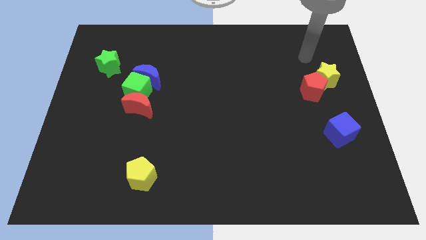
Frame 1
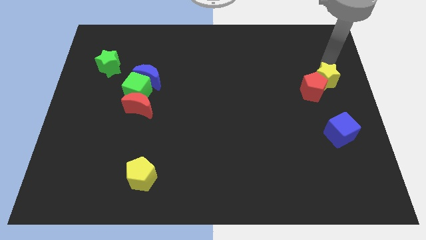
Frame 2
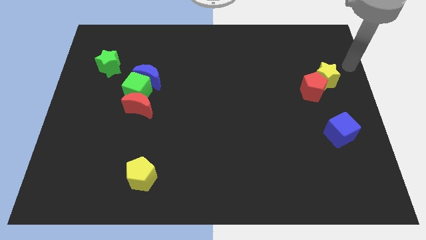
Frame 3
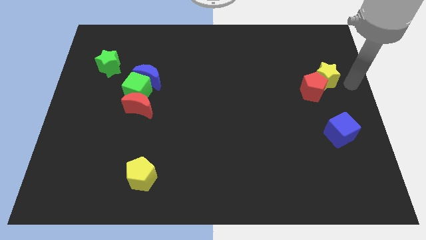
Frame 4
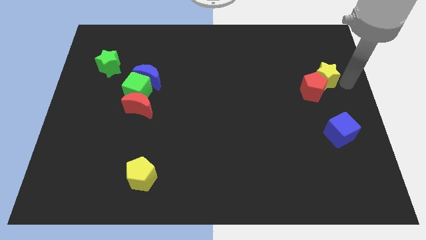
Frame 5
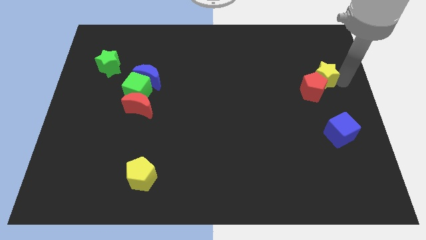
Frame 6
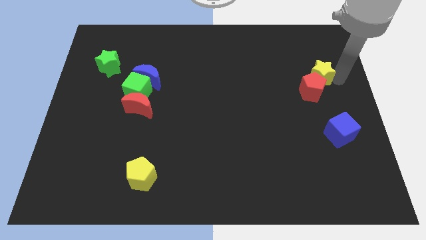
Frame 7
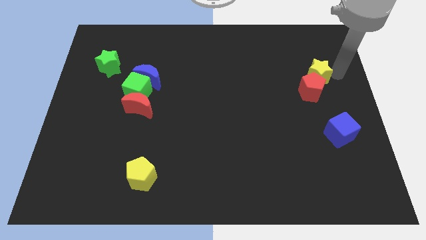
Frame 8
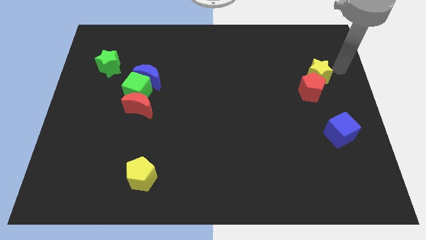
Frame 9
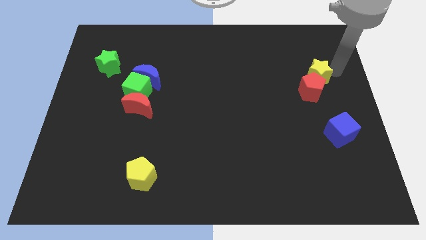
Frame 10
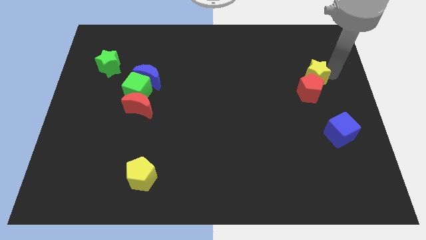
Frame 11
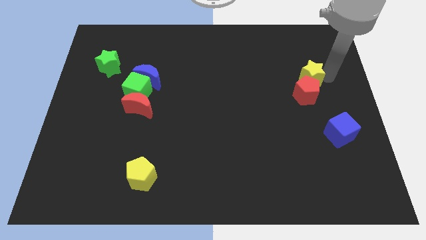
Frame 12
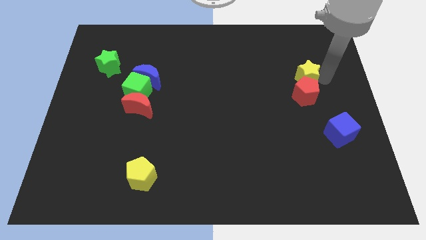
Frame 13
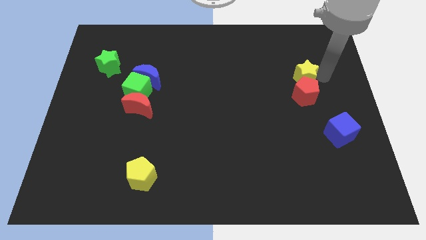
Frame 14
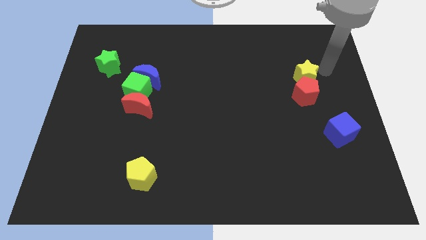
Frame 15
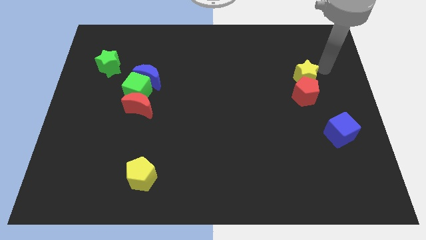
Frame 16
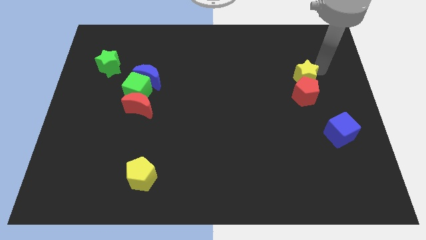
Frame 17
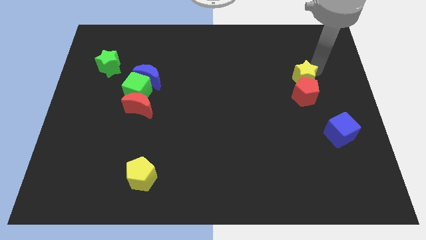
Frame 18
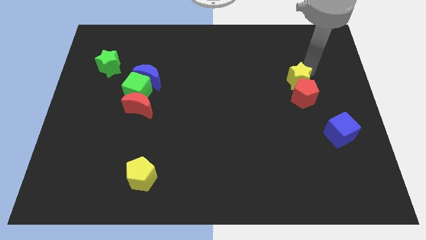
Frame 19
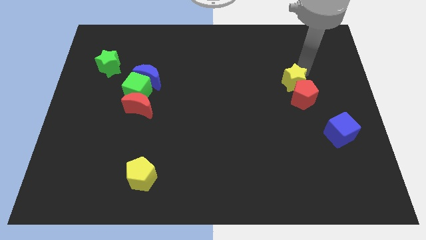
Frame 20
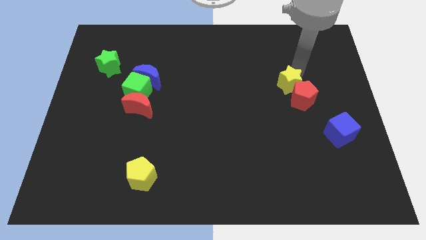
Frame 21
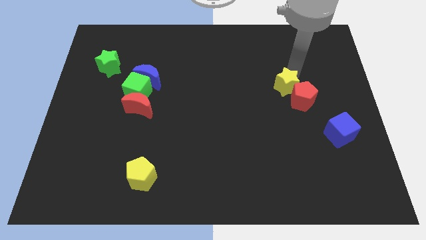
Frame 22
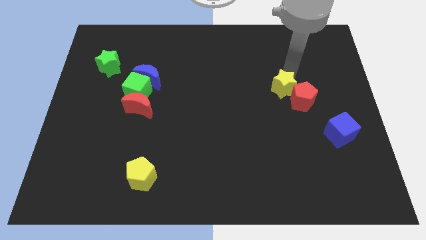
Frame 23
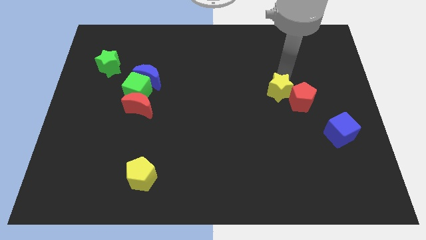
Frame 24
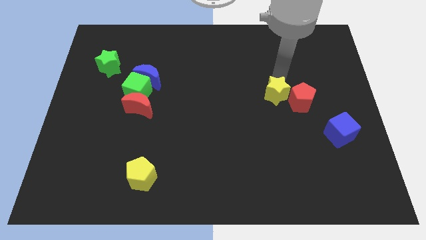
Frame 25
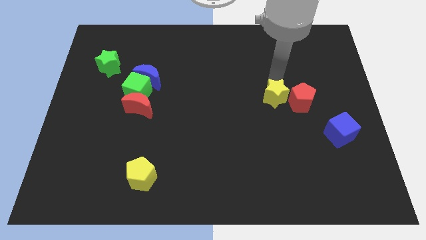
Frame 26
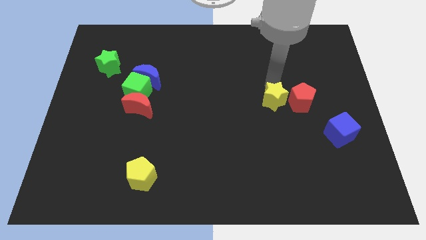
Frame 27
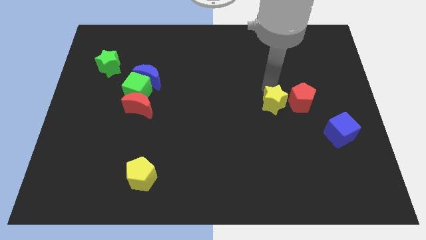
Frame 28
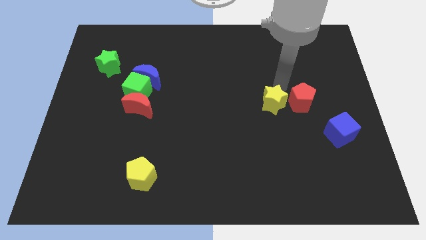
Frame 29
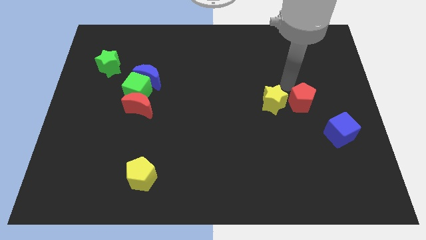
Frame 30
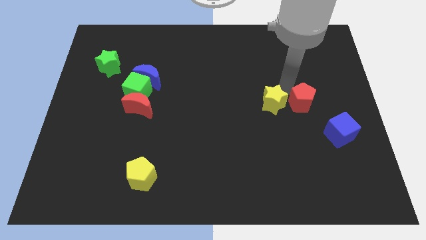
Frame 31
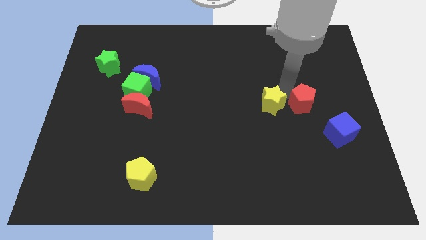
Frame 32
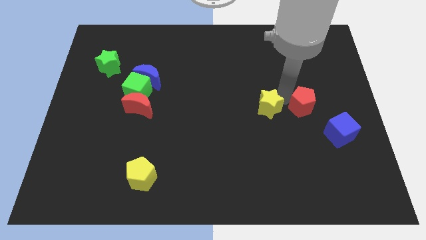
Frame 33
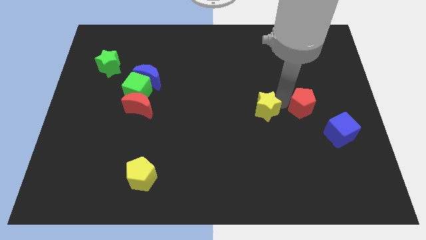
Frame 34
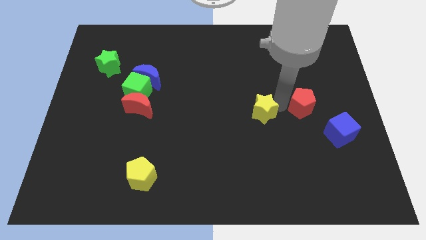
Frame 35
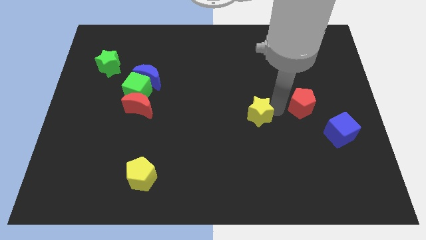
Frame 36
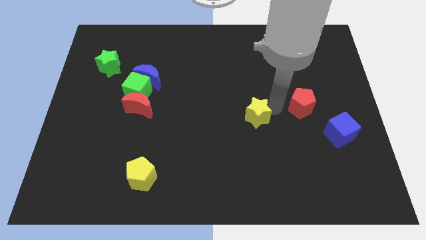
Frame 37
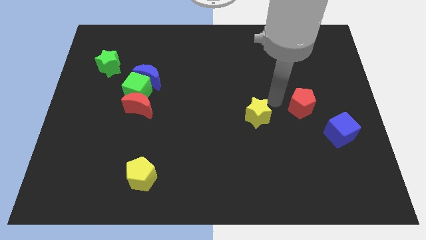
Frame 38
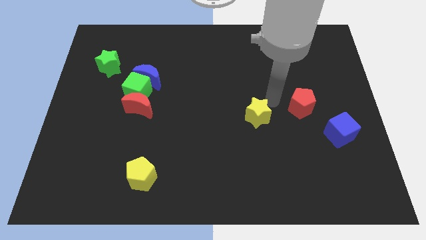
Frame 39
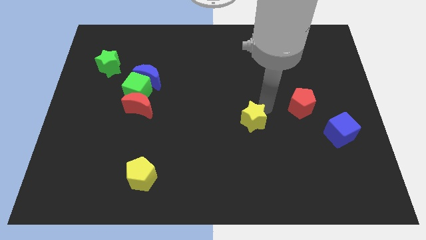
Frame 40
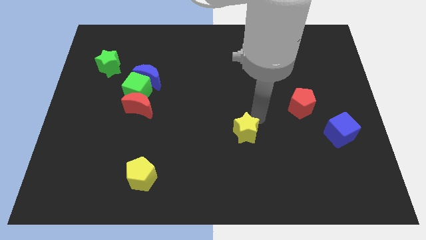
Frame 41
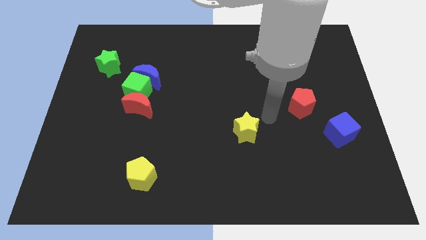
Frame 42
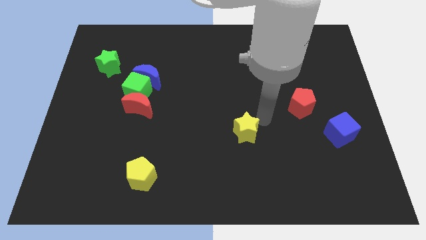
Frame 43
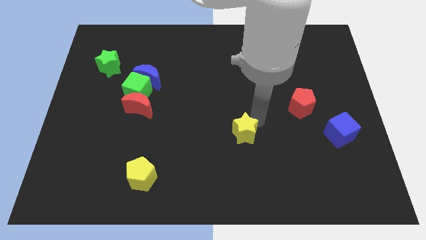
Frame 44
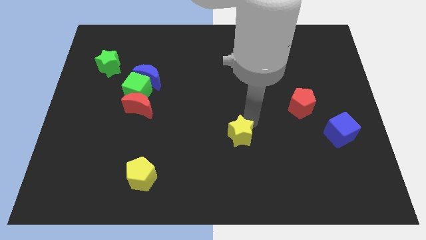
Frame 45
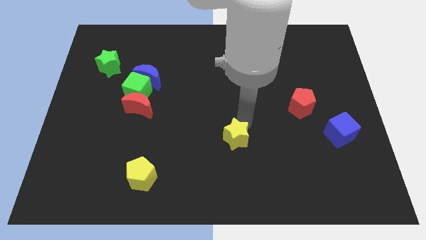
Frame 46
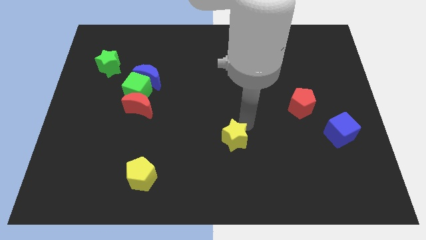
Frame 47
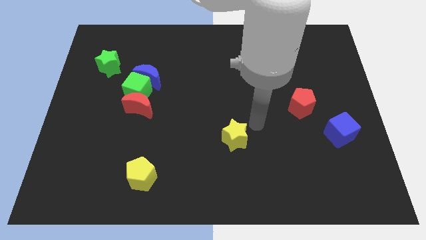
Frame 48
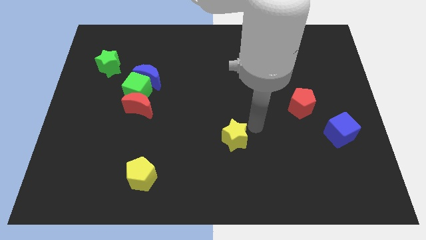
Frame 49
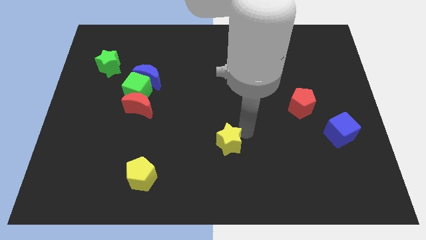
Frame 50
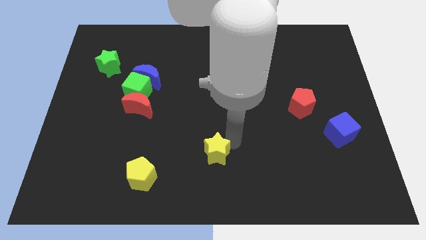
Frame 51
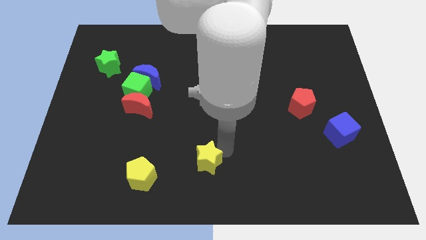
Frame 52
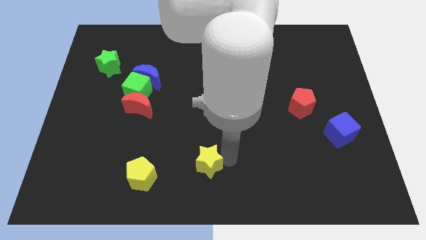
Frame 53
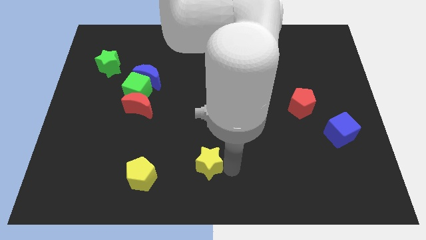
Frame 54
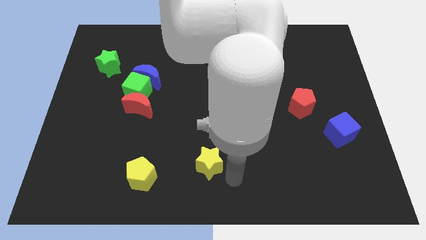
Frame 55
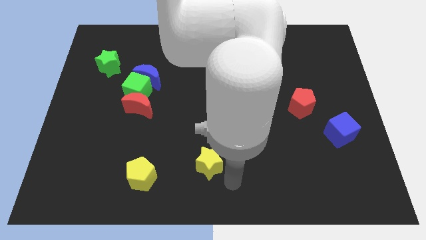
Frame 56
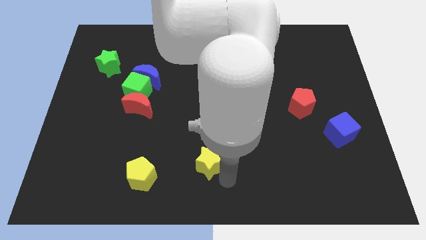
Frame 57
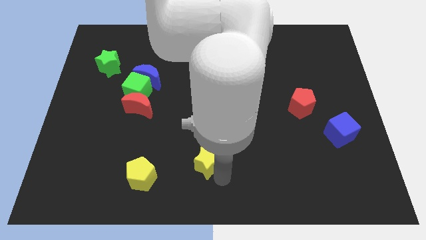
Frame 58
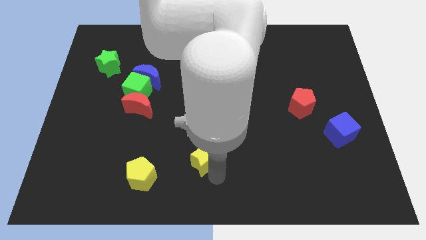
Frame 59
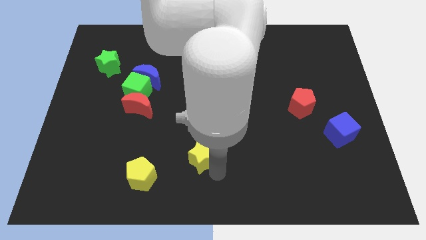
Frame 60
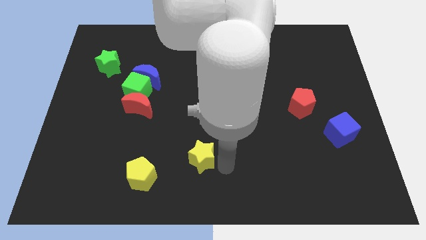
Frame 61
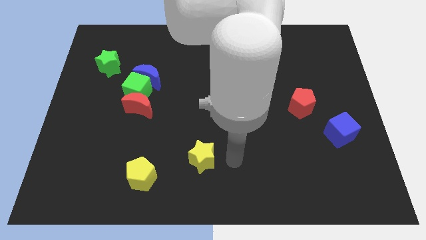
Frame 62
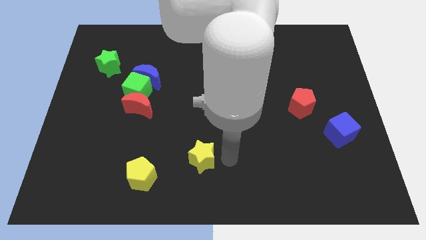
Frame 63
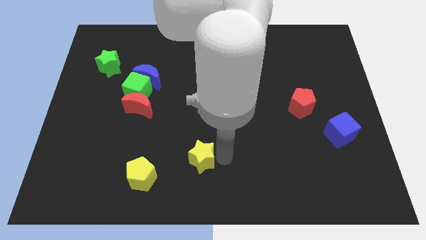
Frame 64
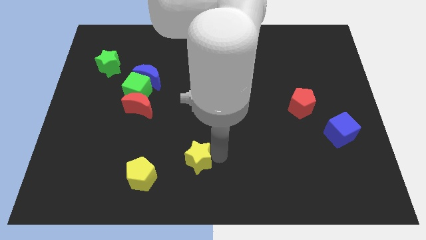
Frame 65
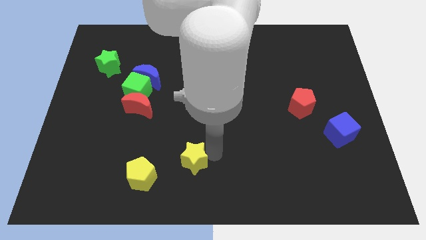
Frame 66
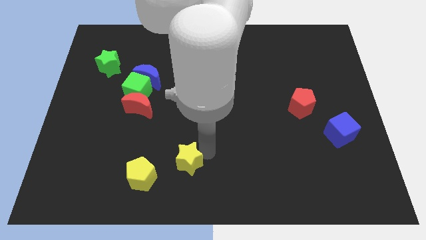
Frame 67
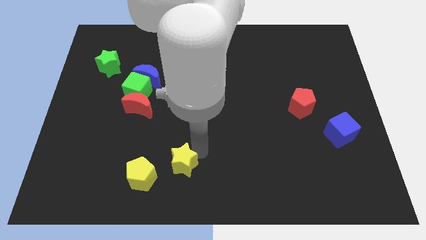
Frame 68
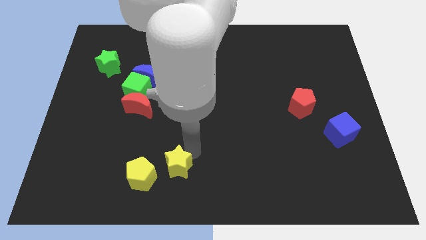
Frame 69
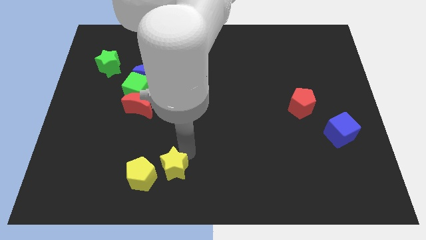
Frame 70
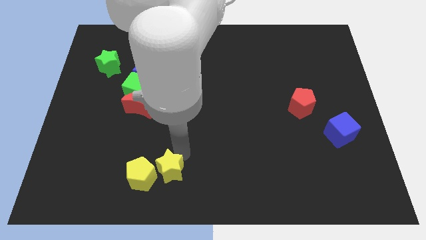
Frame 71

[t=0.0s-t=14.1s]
push the yellow star close to the yellow pentagon

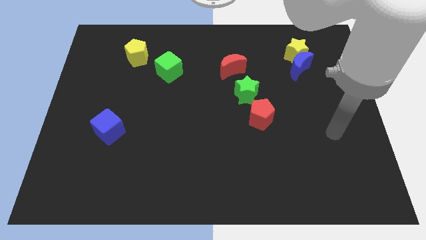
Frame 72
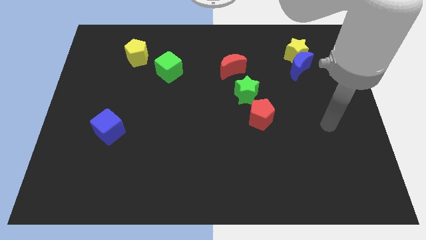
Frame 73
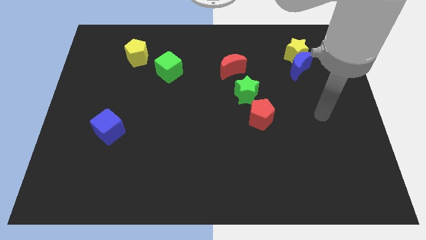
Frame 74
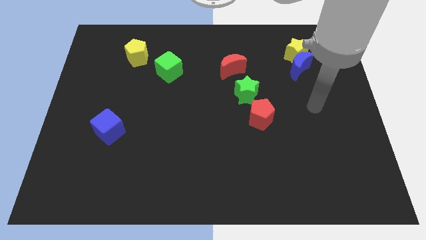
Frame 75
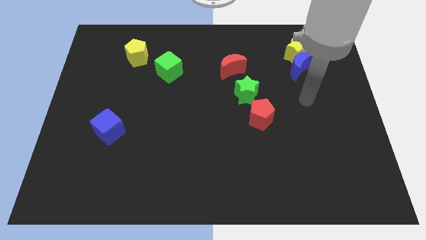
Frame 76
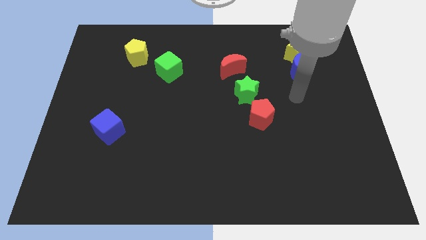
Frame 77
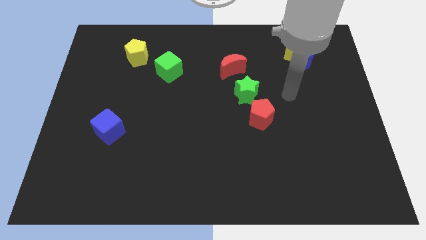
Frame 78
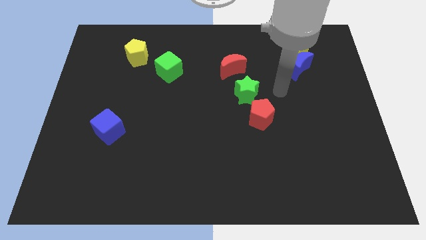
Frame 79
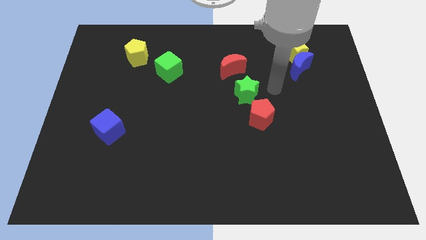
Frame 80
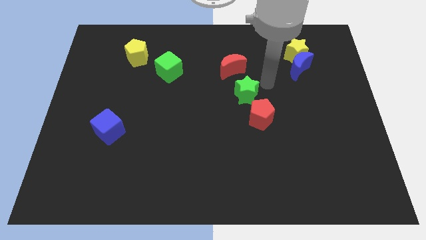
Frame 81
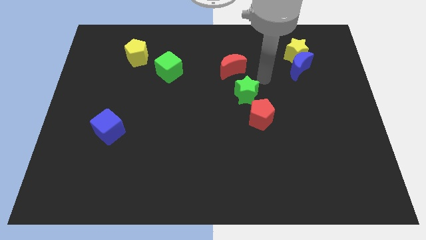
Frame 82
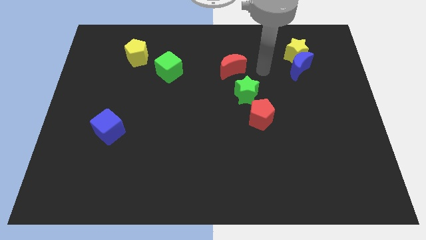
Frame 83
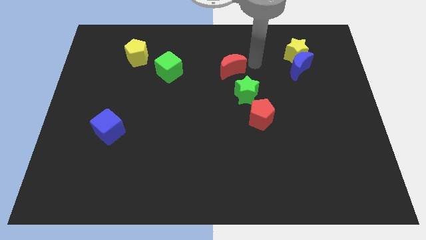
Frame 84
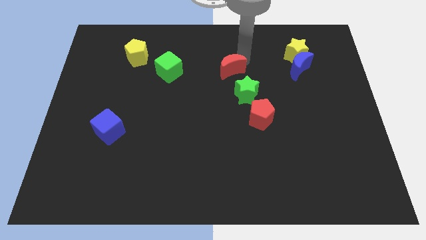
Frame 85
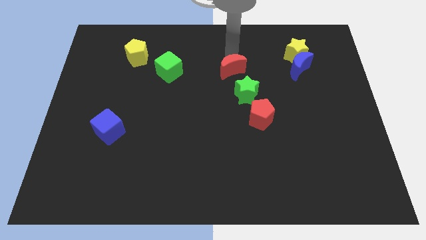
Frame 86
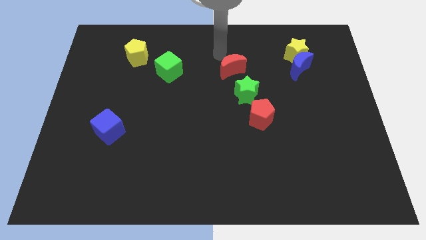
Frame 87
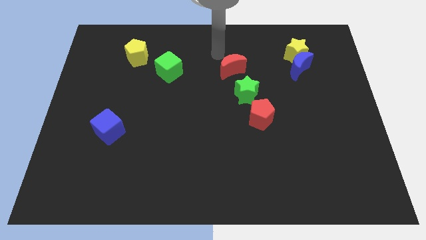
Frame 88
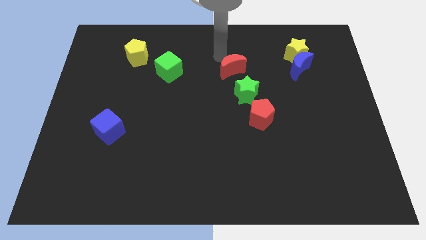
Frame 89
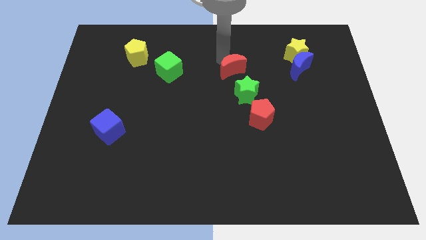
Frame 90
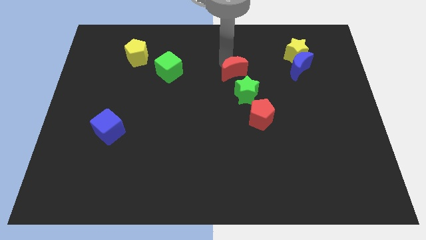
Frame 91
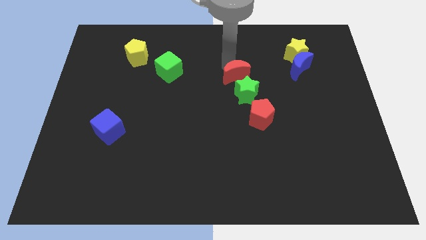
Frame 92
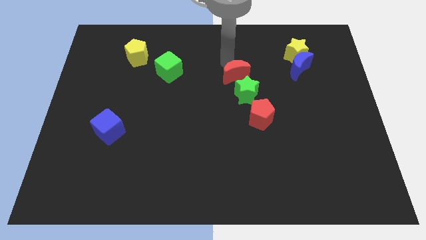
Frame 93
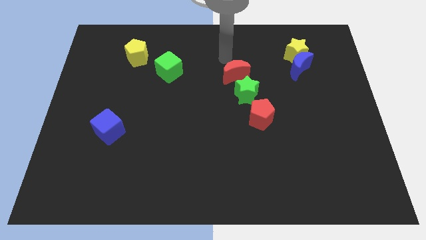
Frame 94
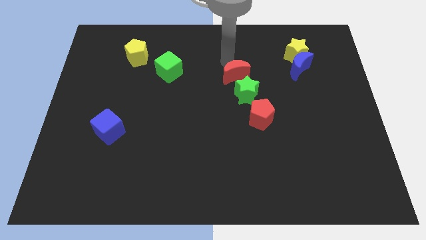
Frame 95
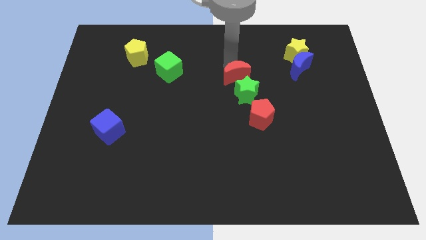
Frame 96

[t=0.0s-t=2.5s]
put the red moon to the green star
